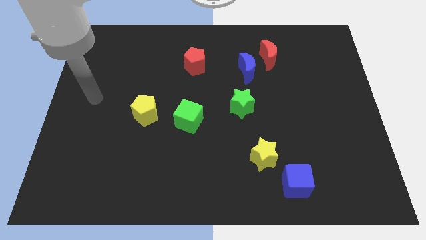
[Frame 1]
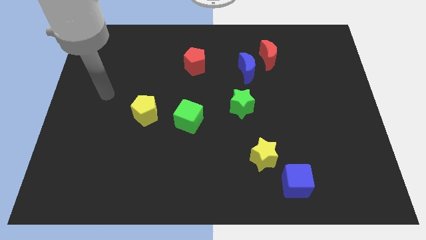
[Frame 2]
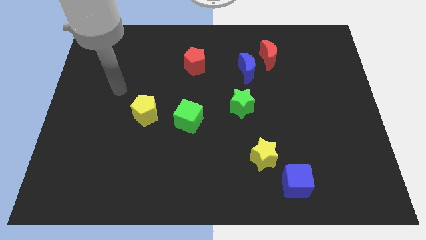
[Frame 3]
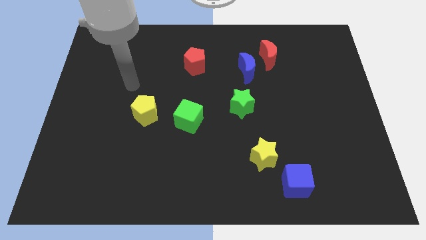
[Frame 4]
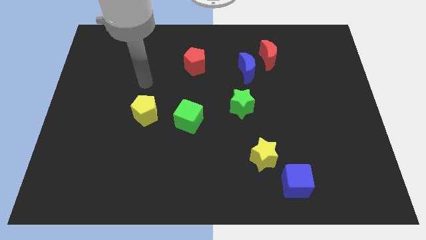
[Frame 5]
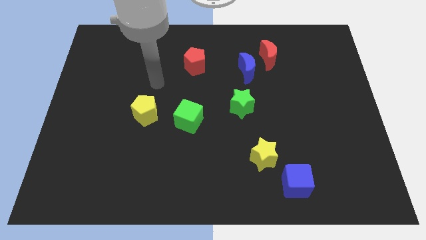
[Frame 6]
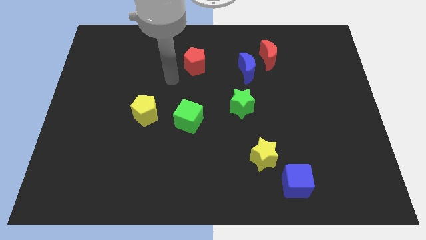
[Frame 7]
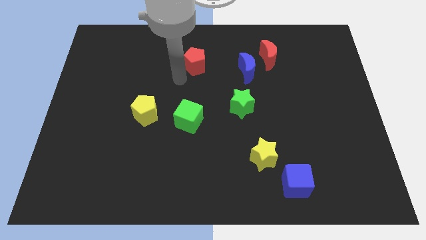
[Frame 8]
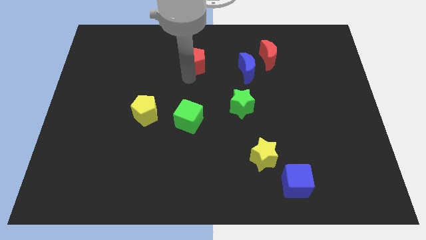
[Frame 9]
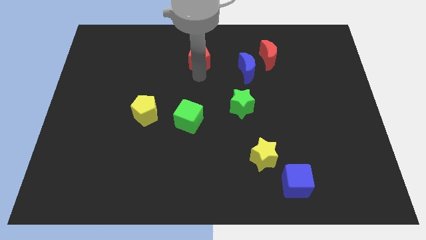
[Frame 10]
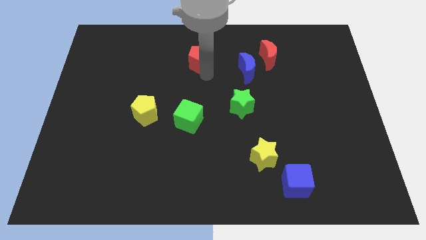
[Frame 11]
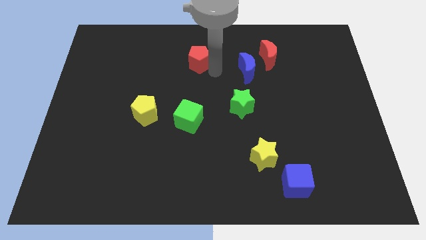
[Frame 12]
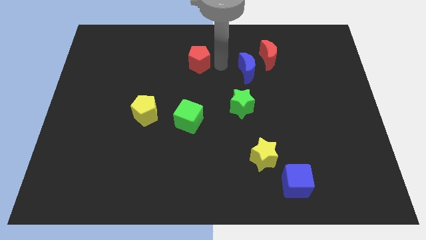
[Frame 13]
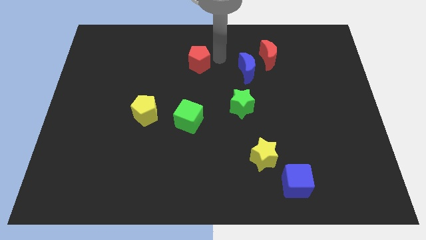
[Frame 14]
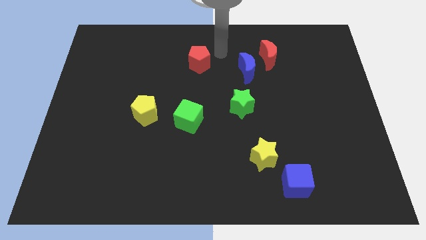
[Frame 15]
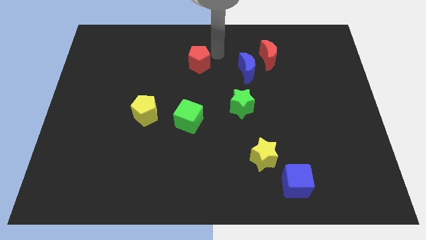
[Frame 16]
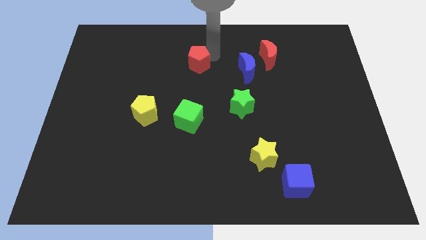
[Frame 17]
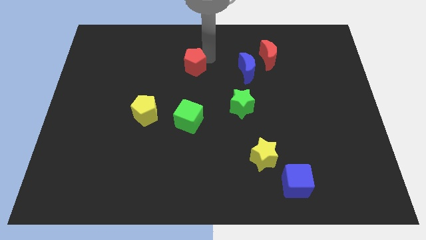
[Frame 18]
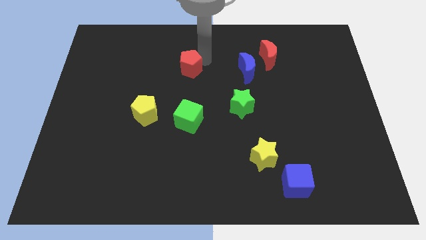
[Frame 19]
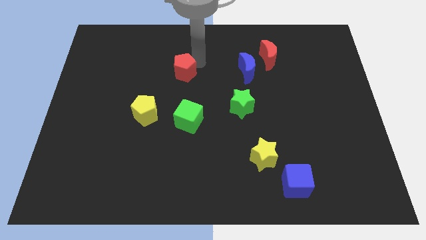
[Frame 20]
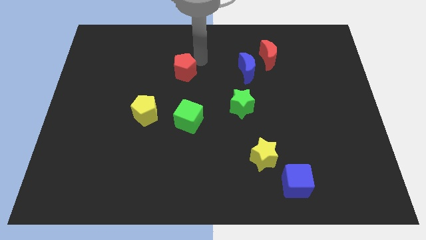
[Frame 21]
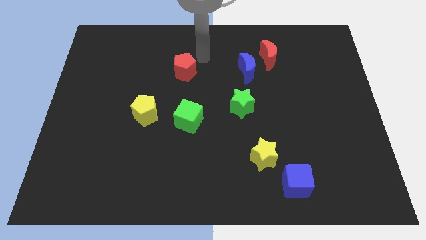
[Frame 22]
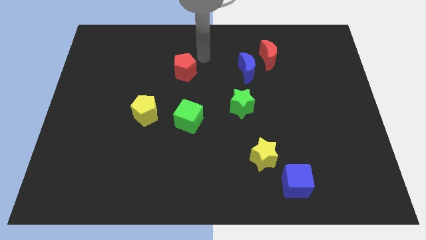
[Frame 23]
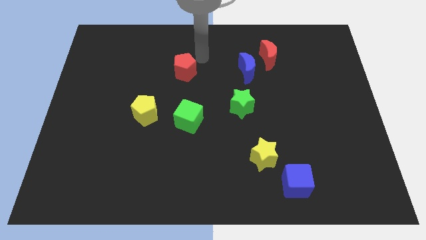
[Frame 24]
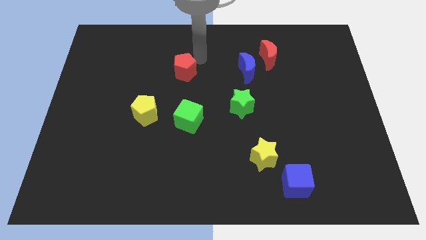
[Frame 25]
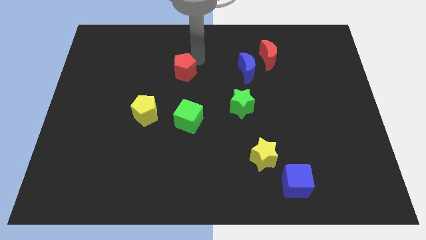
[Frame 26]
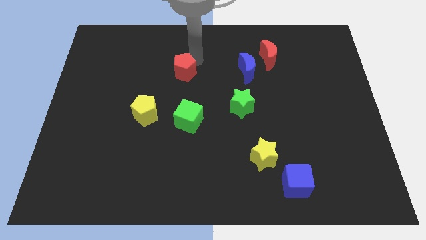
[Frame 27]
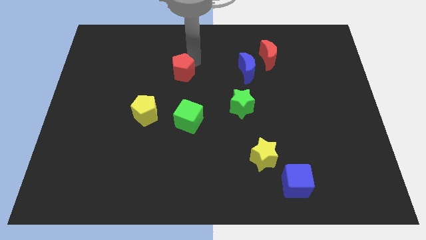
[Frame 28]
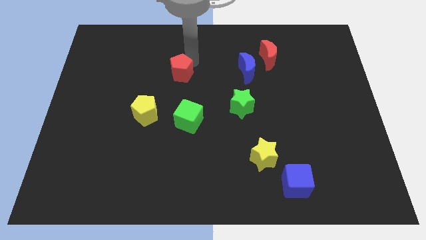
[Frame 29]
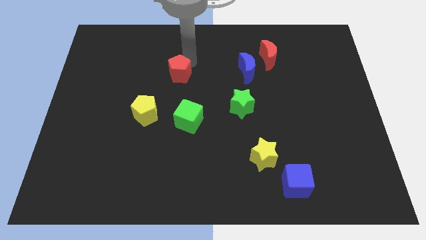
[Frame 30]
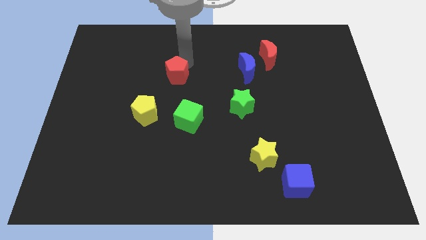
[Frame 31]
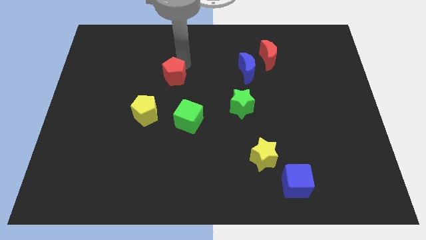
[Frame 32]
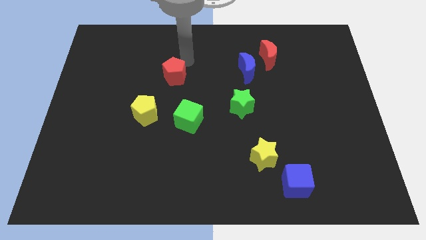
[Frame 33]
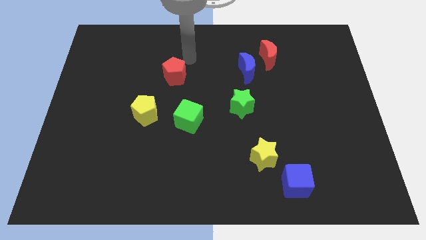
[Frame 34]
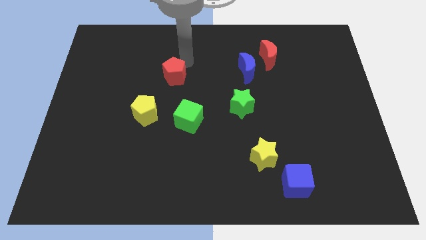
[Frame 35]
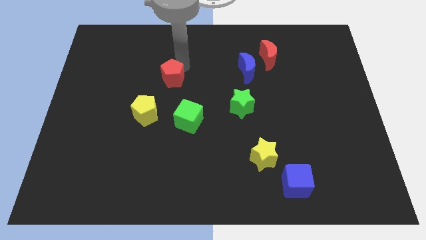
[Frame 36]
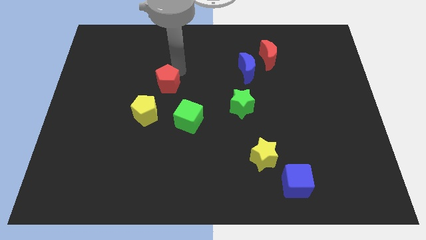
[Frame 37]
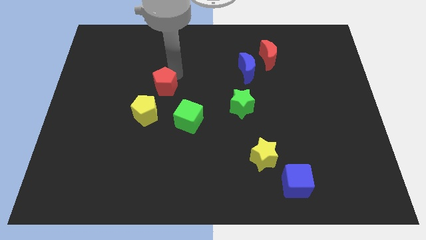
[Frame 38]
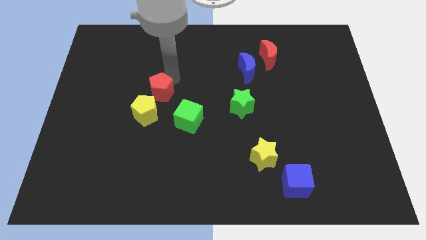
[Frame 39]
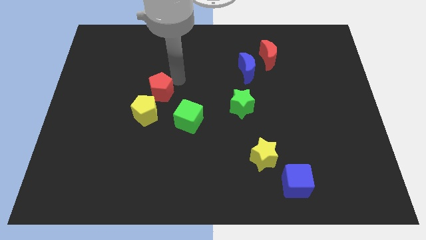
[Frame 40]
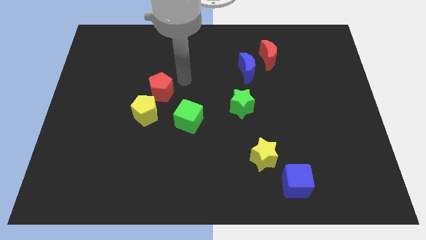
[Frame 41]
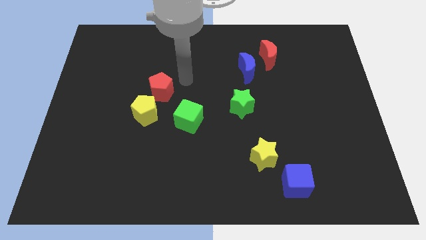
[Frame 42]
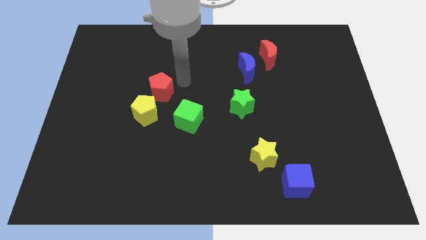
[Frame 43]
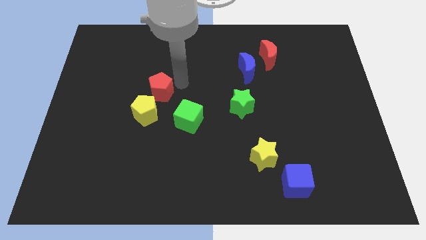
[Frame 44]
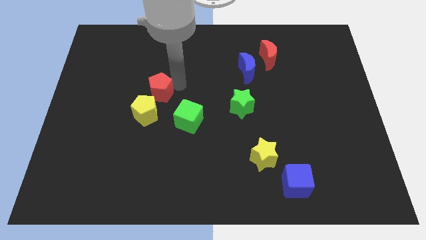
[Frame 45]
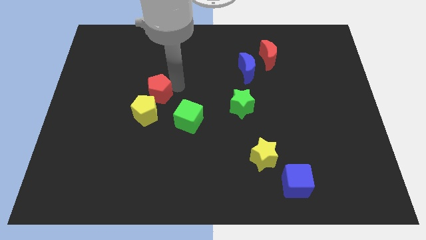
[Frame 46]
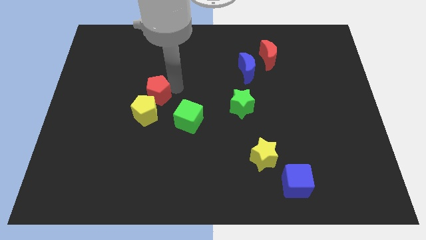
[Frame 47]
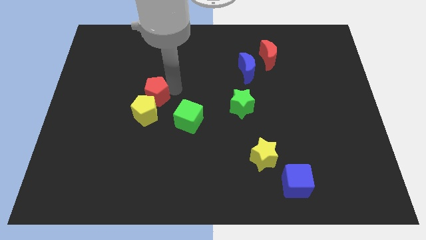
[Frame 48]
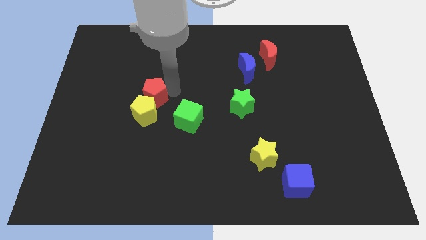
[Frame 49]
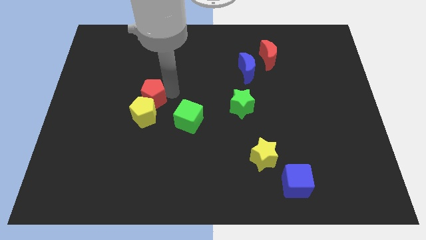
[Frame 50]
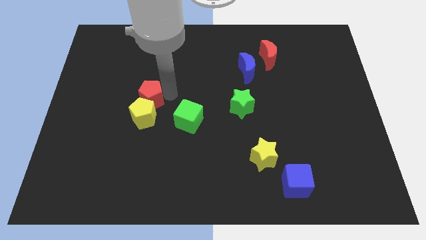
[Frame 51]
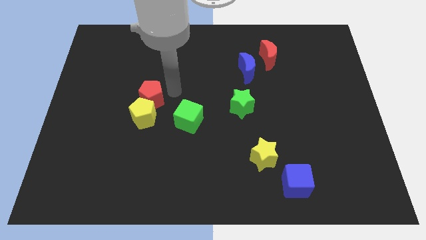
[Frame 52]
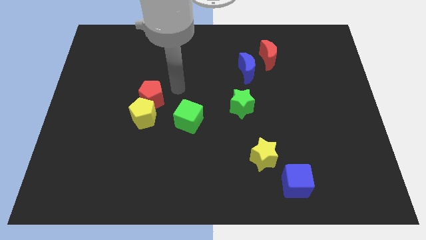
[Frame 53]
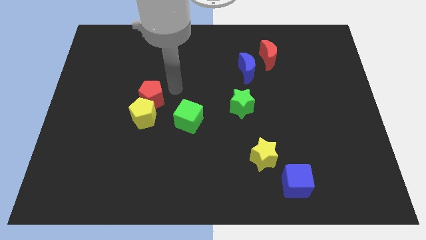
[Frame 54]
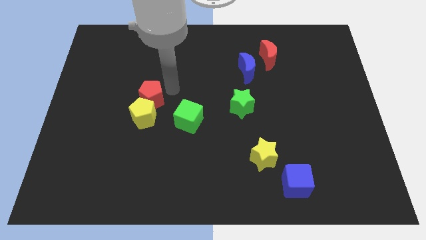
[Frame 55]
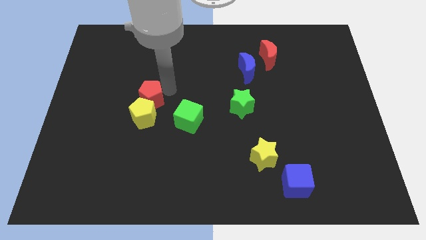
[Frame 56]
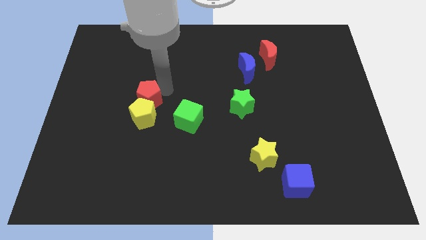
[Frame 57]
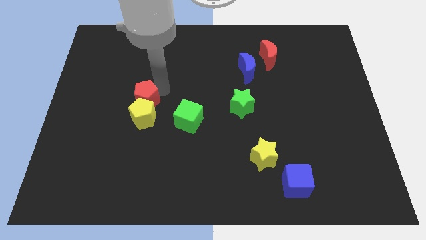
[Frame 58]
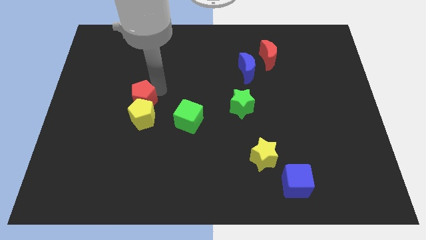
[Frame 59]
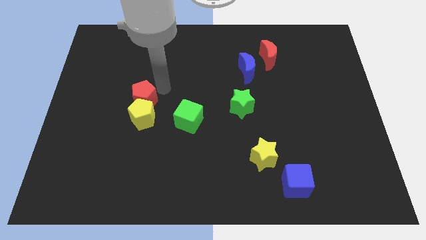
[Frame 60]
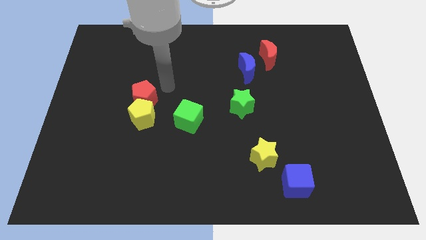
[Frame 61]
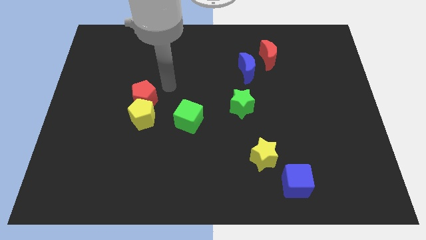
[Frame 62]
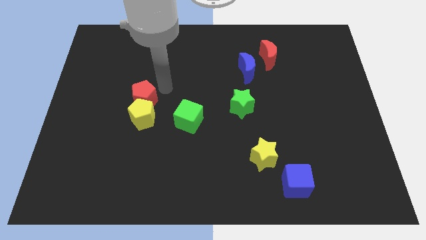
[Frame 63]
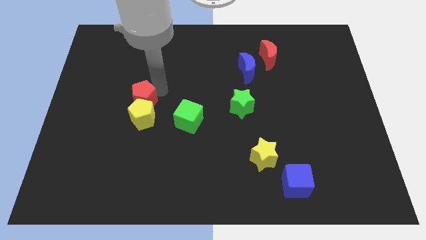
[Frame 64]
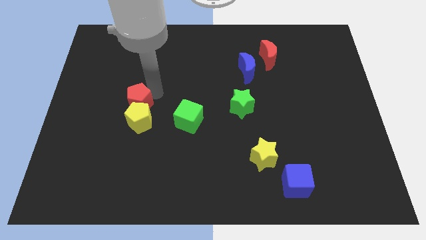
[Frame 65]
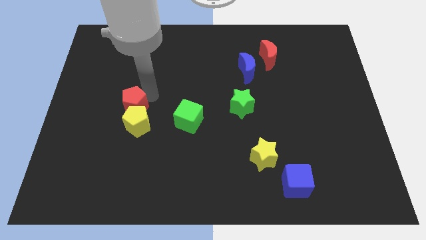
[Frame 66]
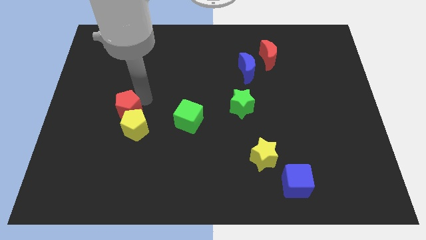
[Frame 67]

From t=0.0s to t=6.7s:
move the red pentagon diagonally down and to the left

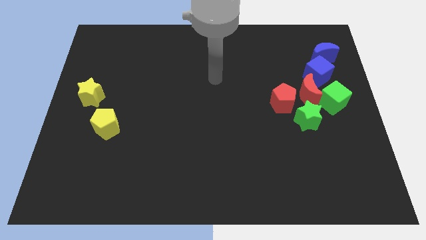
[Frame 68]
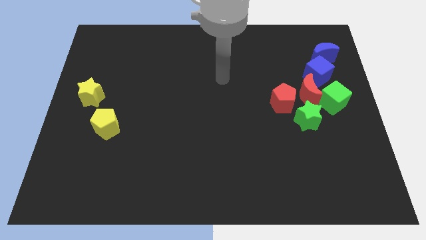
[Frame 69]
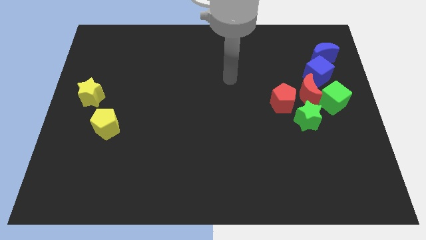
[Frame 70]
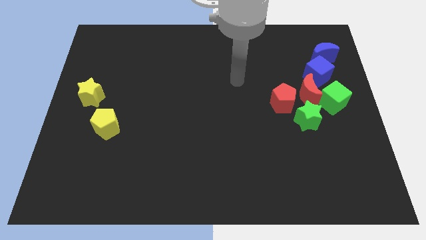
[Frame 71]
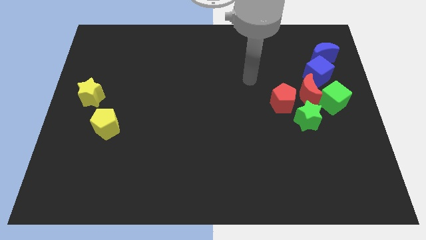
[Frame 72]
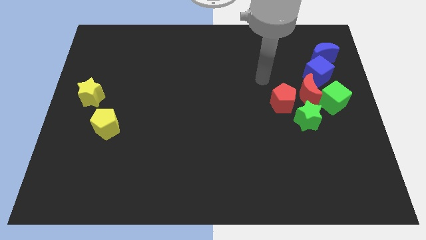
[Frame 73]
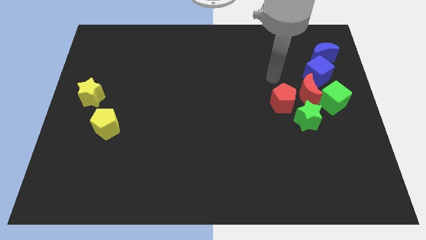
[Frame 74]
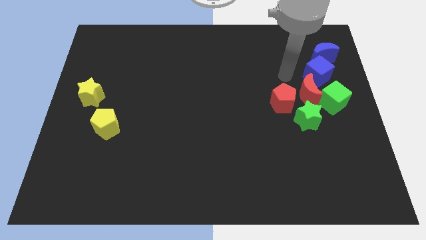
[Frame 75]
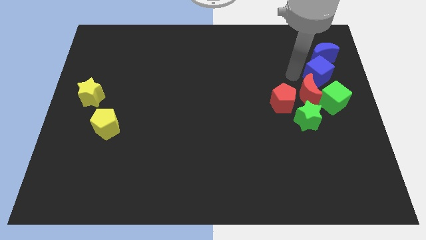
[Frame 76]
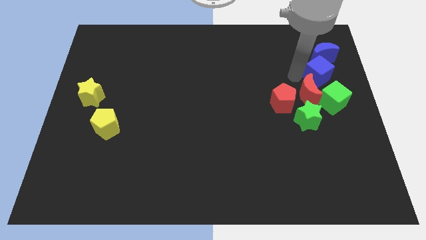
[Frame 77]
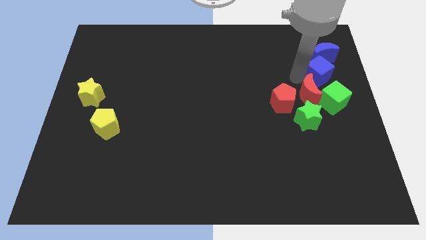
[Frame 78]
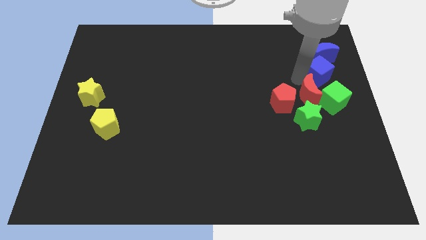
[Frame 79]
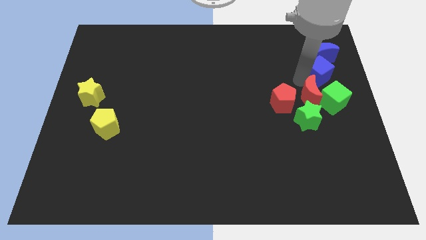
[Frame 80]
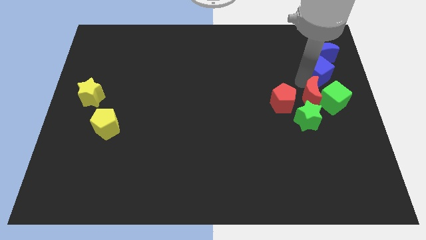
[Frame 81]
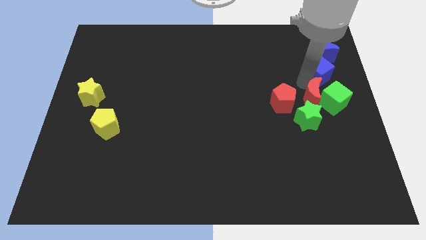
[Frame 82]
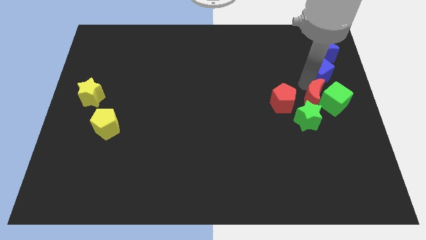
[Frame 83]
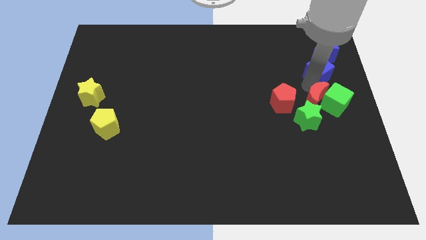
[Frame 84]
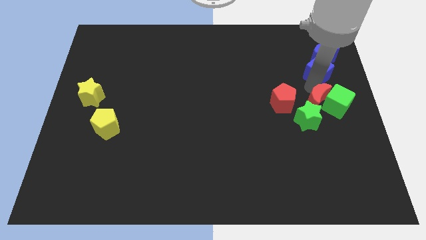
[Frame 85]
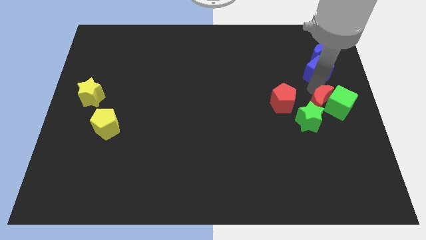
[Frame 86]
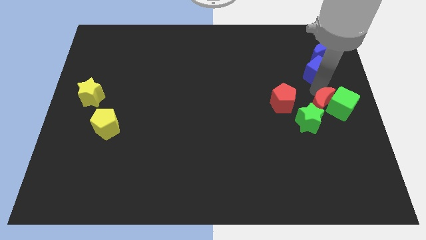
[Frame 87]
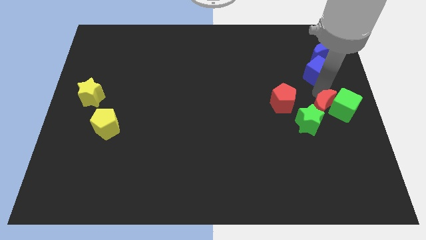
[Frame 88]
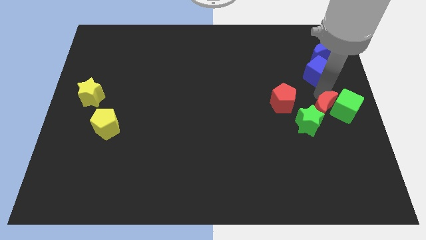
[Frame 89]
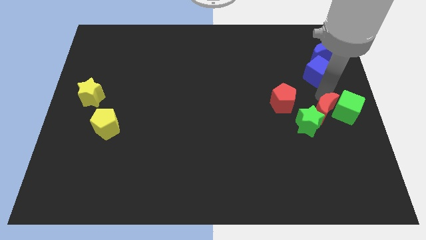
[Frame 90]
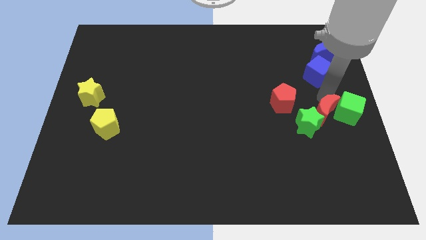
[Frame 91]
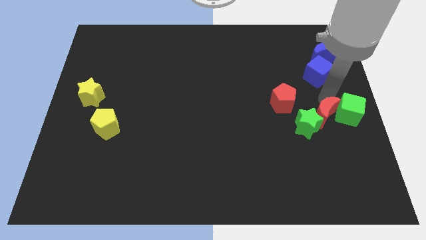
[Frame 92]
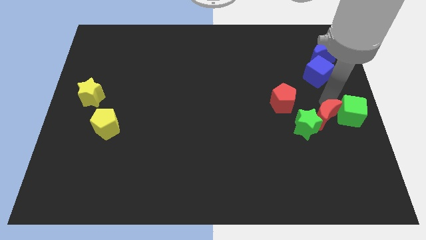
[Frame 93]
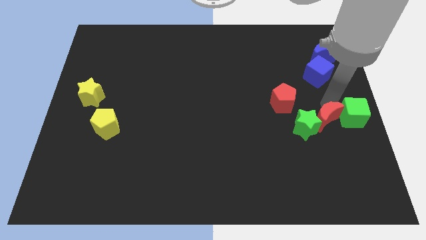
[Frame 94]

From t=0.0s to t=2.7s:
move the red moon downwards slightly
